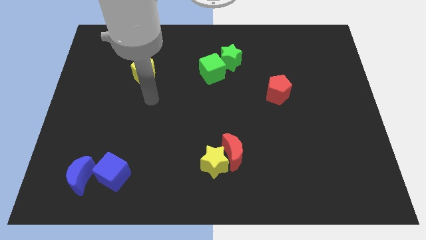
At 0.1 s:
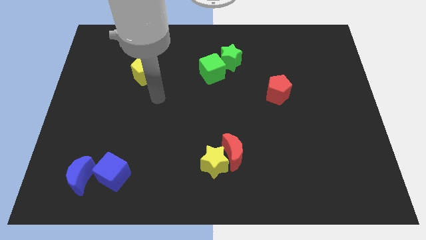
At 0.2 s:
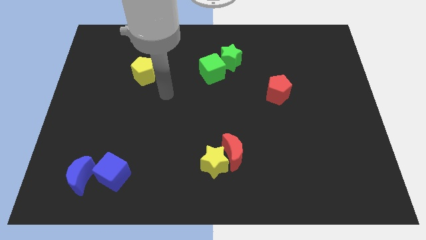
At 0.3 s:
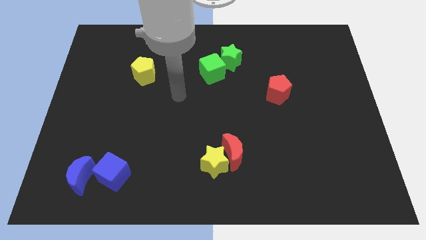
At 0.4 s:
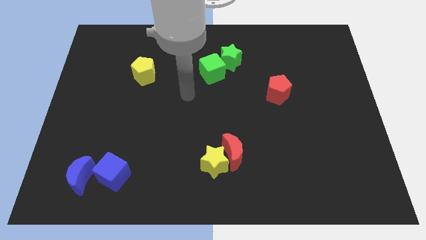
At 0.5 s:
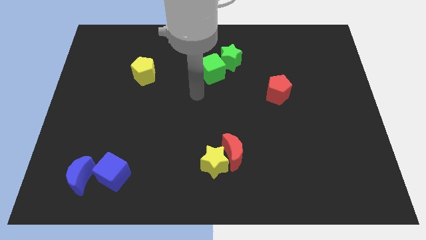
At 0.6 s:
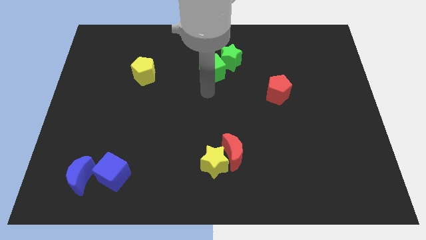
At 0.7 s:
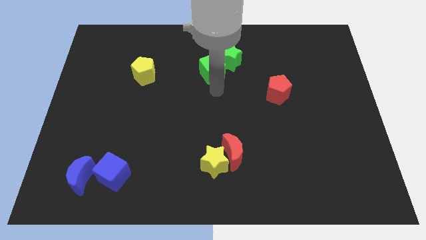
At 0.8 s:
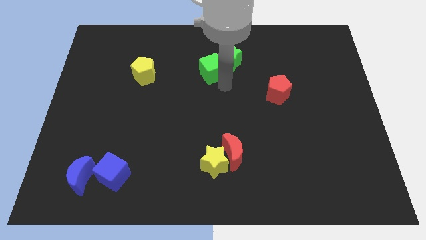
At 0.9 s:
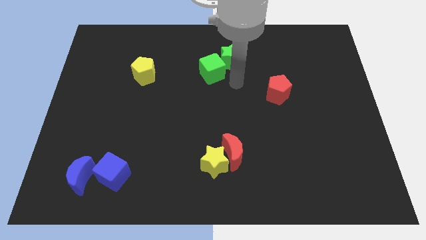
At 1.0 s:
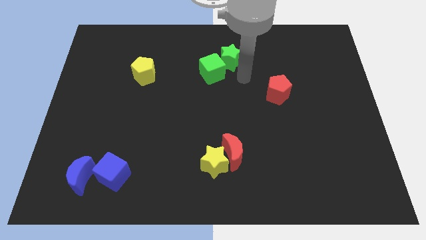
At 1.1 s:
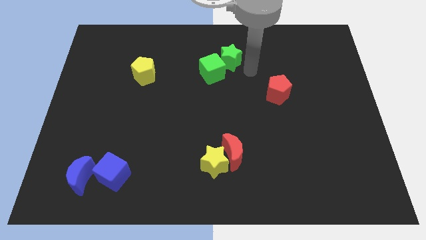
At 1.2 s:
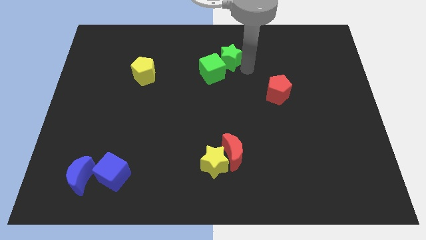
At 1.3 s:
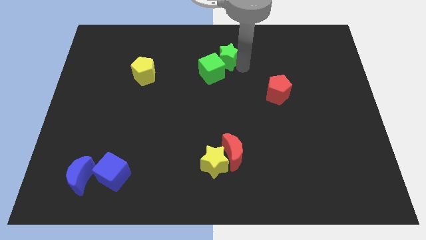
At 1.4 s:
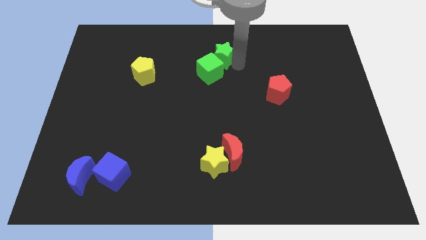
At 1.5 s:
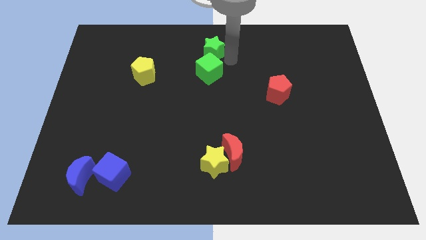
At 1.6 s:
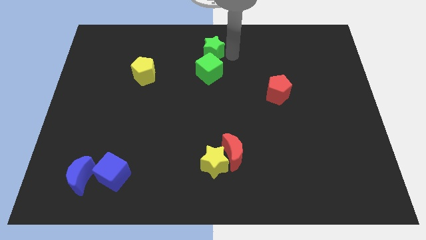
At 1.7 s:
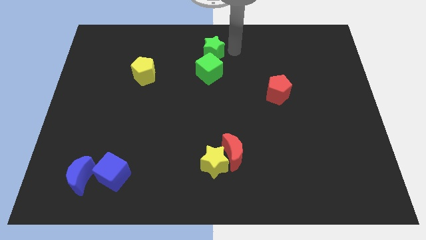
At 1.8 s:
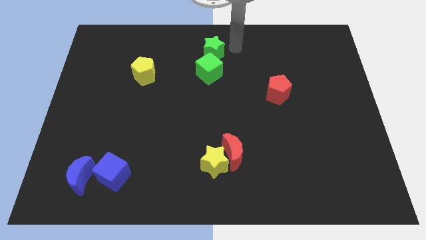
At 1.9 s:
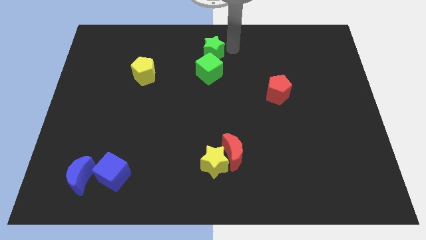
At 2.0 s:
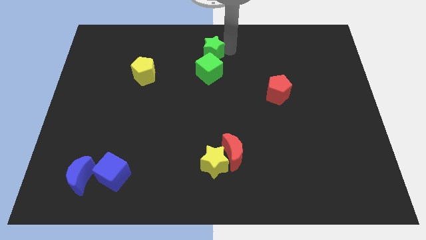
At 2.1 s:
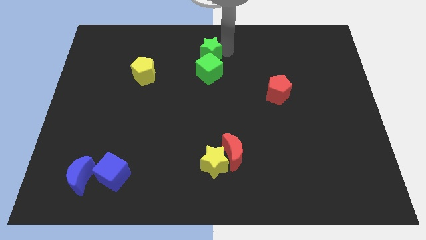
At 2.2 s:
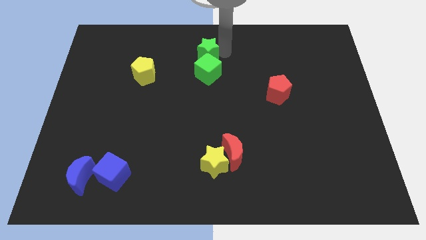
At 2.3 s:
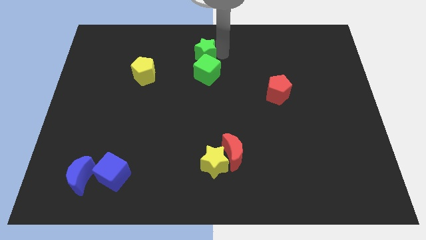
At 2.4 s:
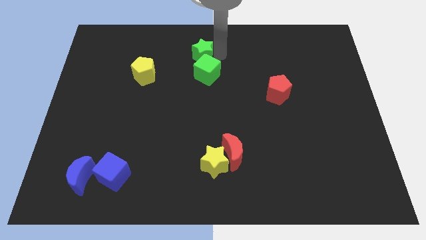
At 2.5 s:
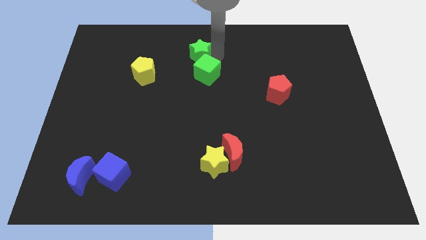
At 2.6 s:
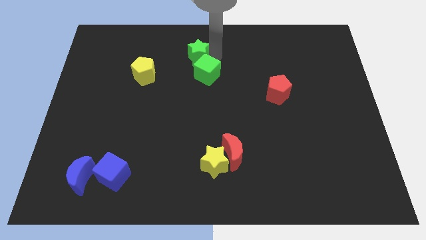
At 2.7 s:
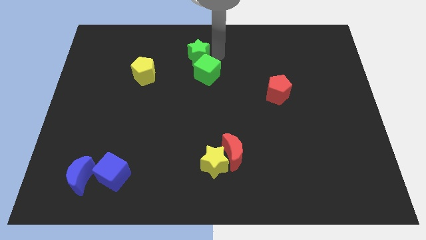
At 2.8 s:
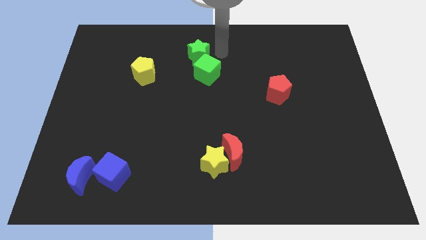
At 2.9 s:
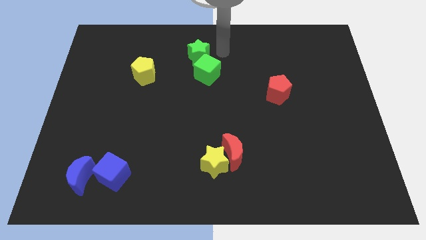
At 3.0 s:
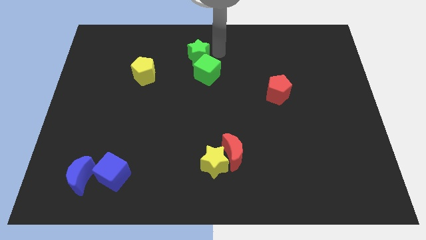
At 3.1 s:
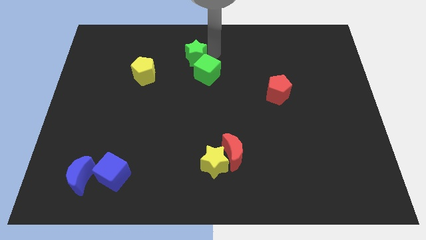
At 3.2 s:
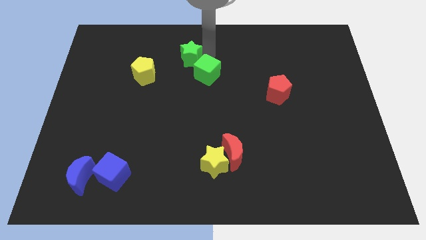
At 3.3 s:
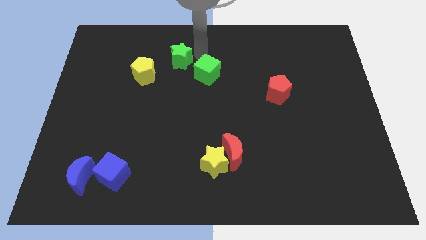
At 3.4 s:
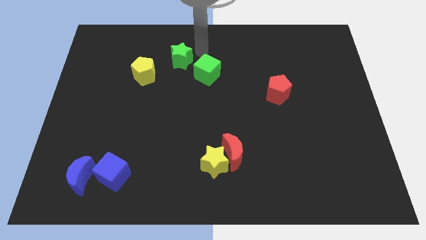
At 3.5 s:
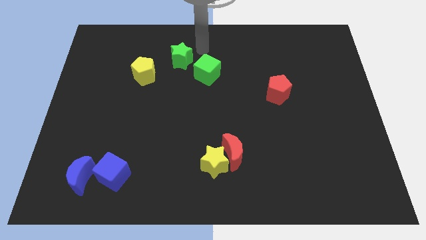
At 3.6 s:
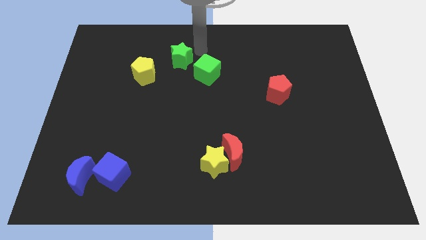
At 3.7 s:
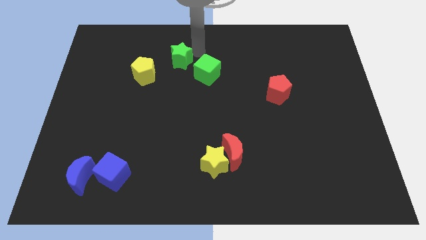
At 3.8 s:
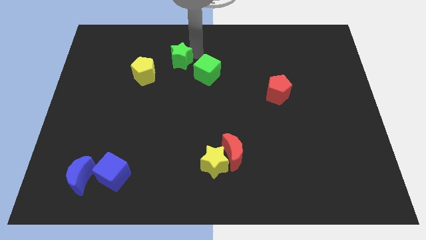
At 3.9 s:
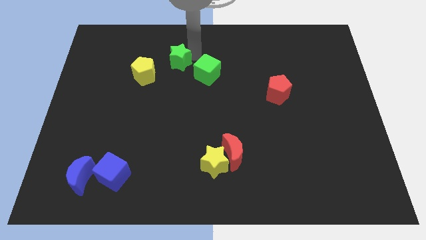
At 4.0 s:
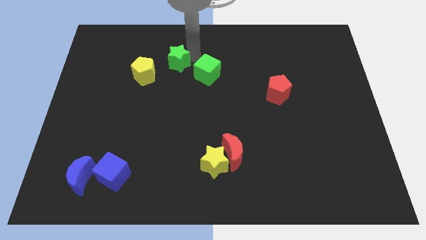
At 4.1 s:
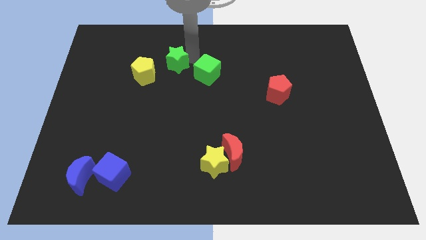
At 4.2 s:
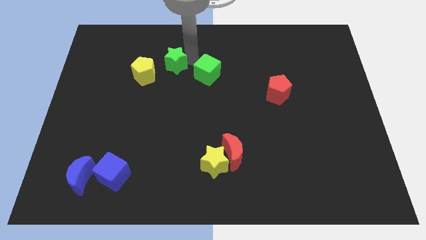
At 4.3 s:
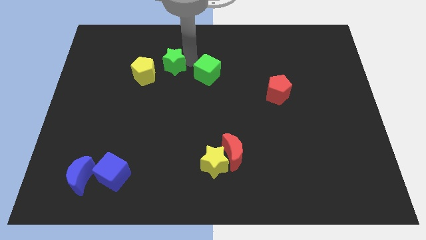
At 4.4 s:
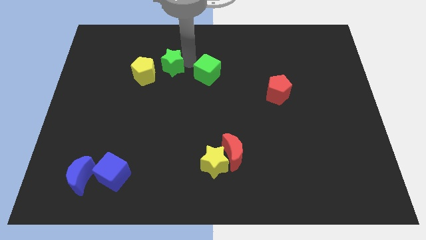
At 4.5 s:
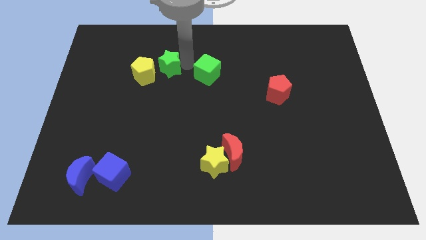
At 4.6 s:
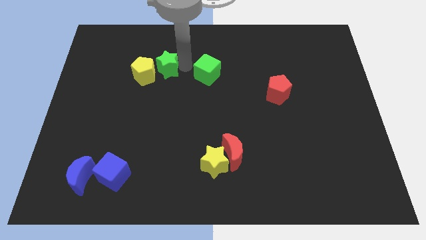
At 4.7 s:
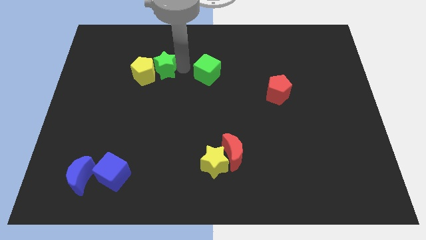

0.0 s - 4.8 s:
move the green star next to the yellow pentagon

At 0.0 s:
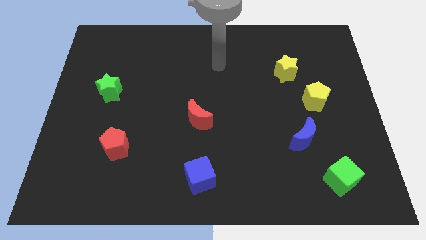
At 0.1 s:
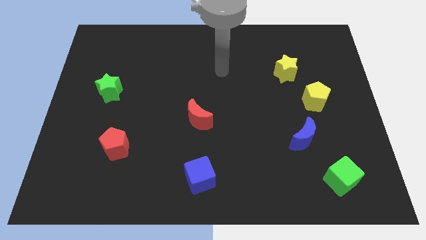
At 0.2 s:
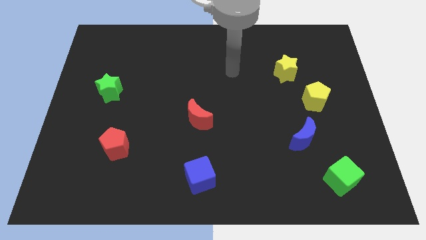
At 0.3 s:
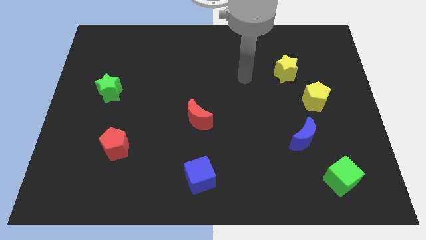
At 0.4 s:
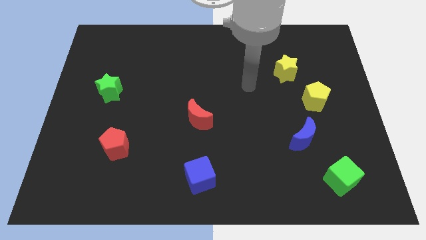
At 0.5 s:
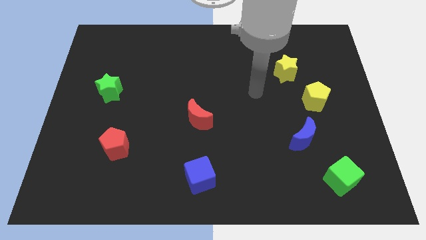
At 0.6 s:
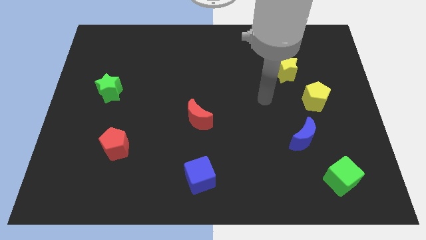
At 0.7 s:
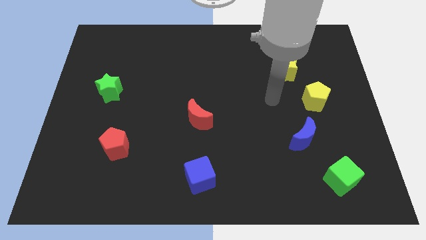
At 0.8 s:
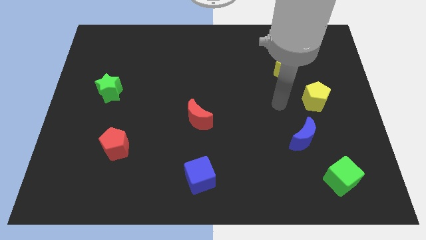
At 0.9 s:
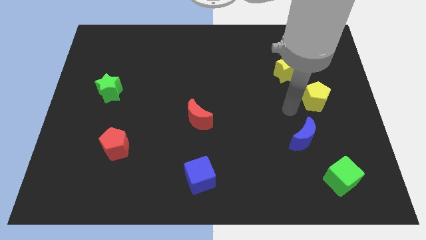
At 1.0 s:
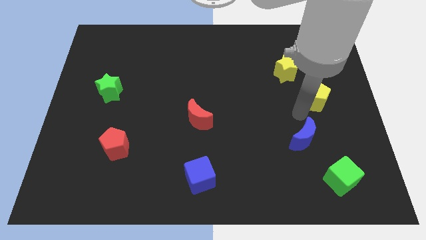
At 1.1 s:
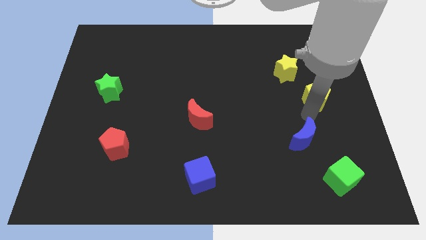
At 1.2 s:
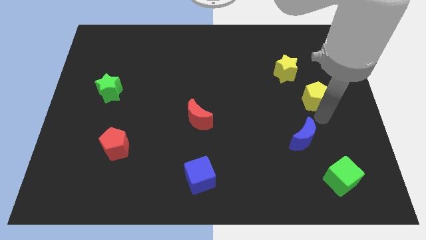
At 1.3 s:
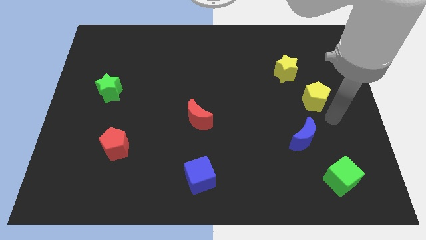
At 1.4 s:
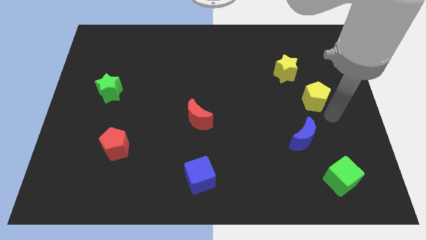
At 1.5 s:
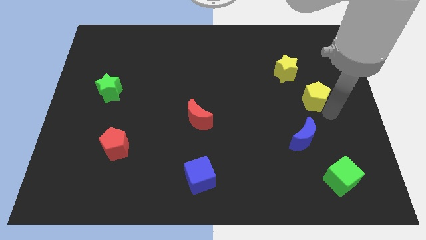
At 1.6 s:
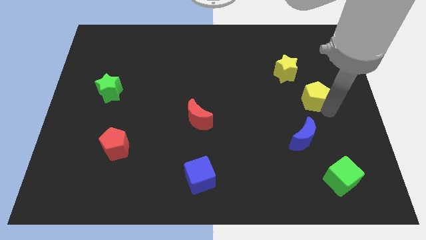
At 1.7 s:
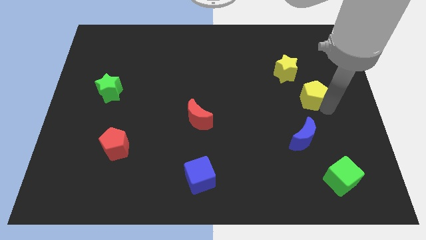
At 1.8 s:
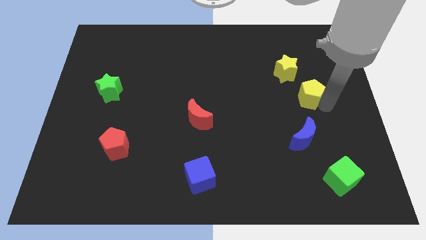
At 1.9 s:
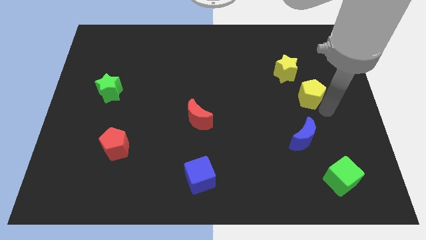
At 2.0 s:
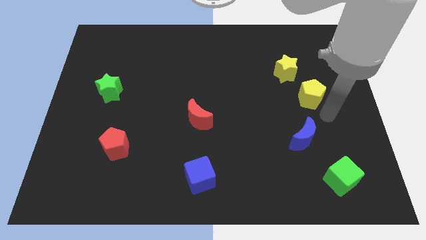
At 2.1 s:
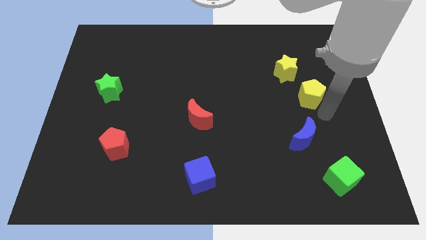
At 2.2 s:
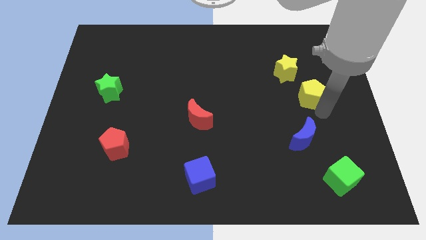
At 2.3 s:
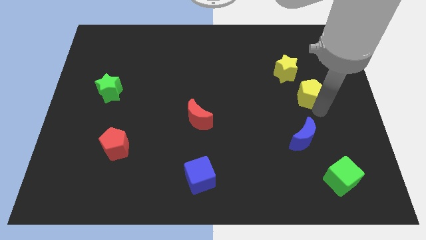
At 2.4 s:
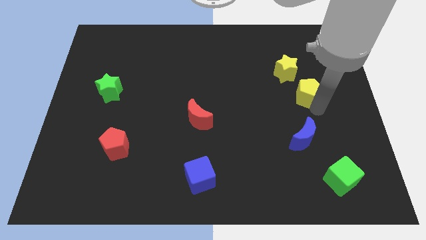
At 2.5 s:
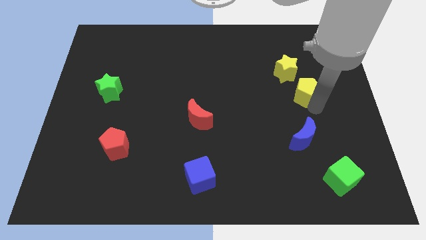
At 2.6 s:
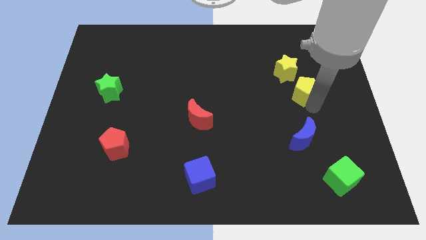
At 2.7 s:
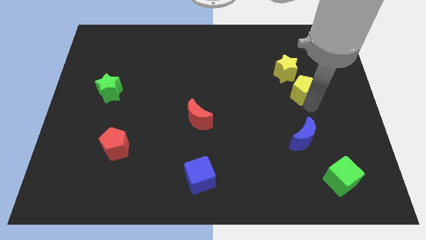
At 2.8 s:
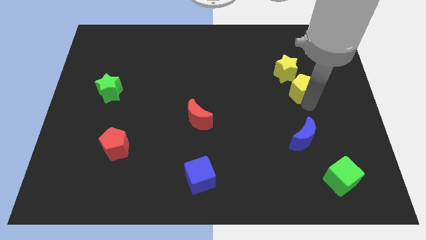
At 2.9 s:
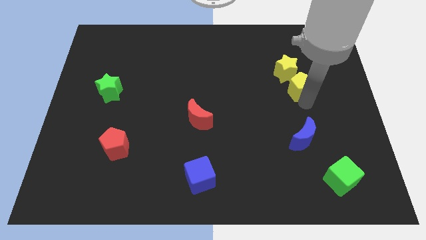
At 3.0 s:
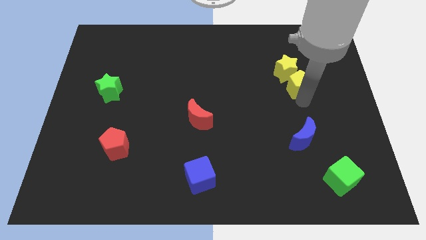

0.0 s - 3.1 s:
move the yellow pentagon to the yellow star

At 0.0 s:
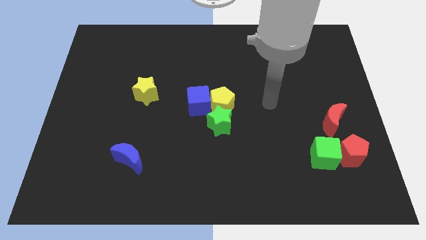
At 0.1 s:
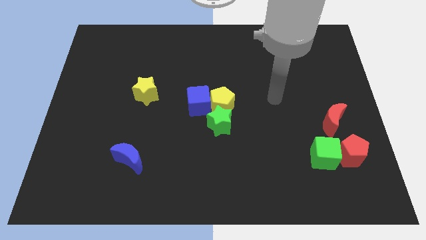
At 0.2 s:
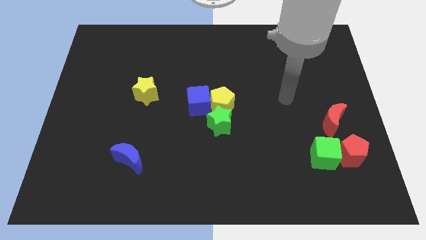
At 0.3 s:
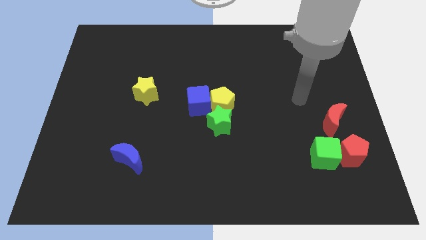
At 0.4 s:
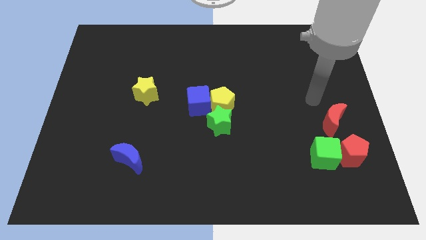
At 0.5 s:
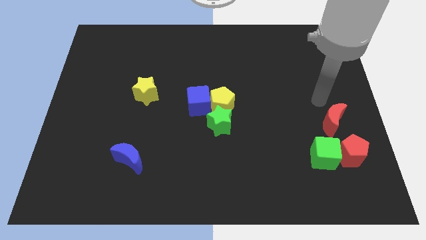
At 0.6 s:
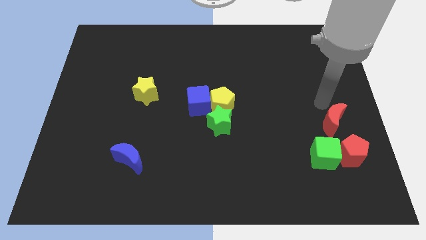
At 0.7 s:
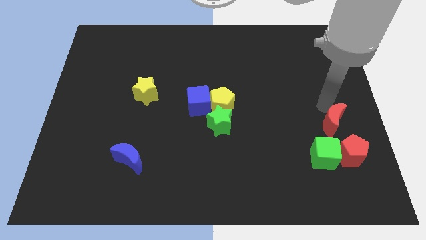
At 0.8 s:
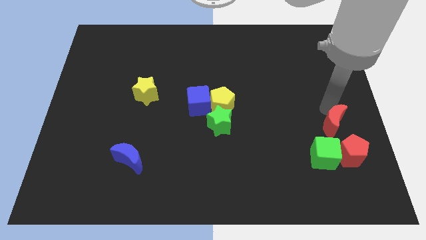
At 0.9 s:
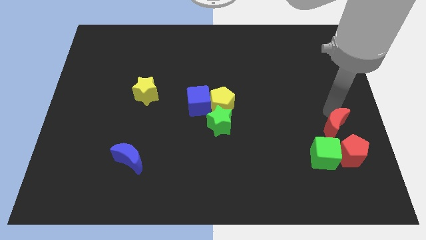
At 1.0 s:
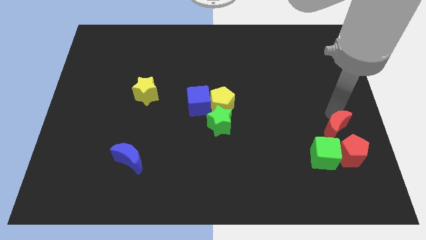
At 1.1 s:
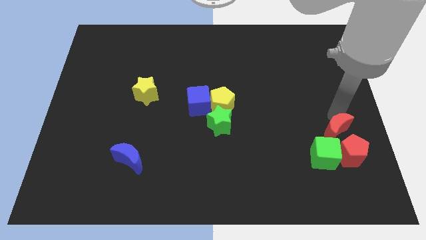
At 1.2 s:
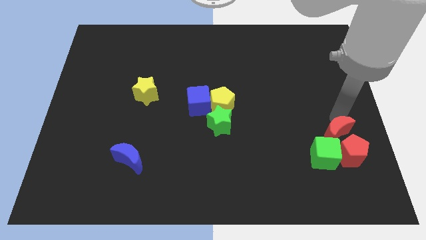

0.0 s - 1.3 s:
move the red moon towards the red pentagon
